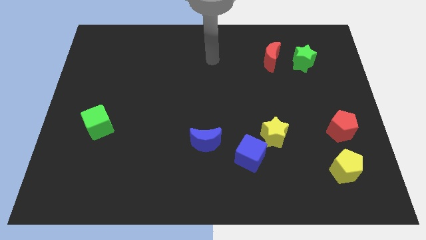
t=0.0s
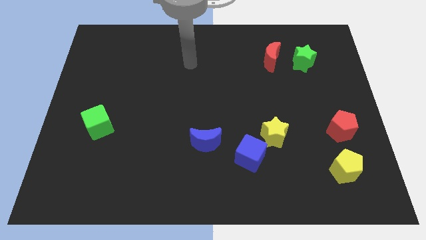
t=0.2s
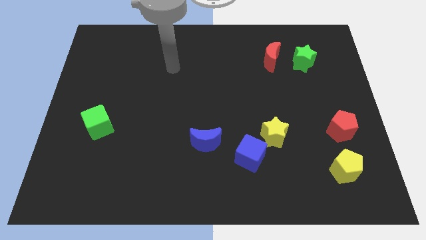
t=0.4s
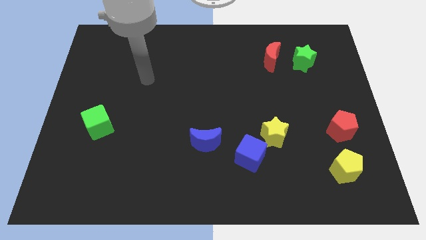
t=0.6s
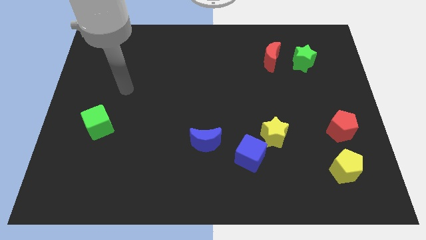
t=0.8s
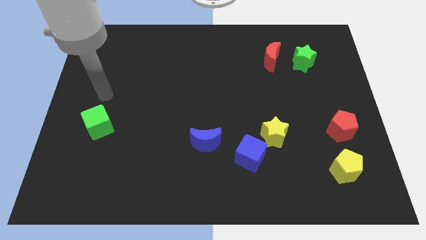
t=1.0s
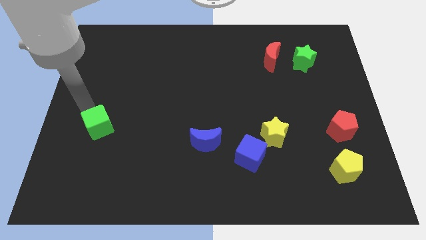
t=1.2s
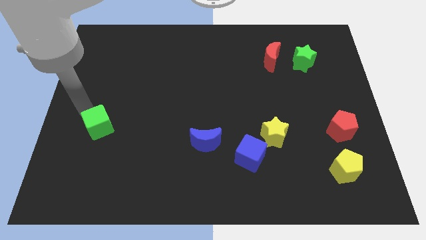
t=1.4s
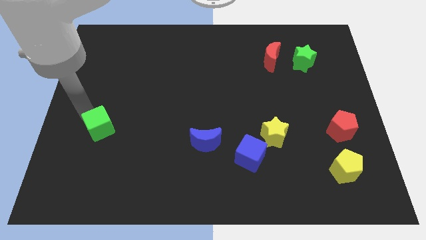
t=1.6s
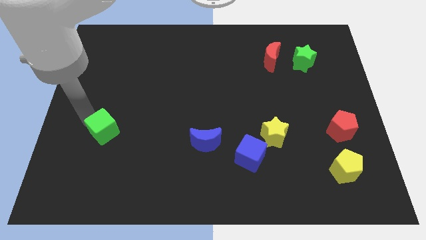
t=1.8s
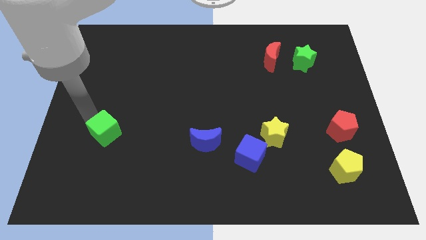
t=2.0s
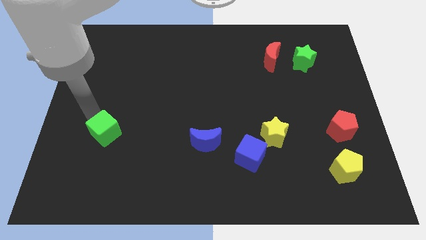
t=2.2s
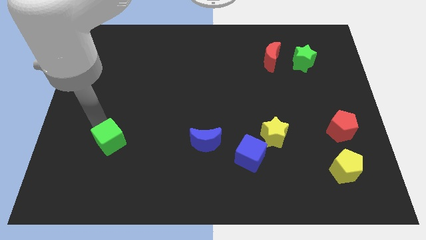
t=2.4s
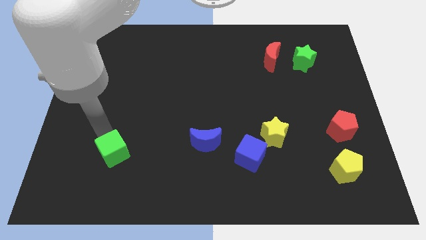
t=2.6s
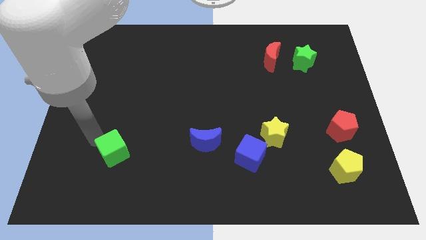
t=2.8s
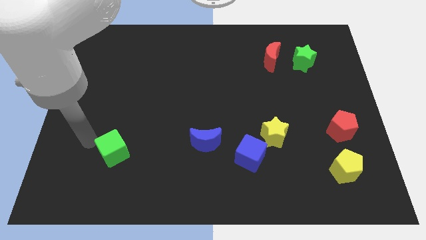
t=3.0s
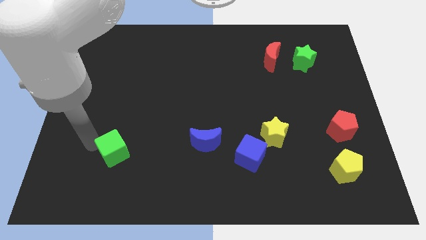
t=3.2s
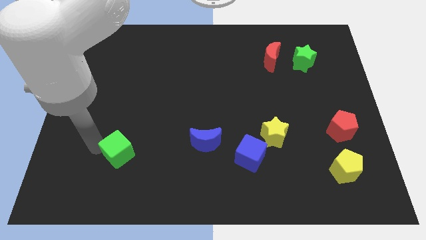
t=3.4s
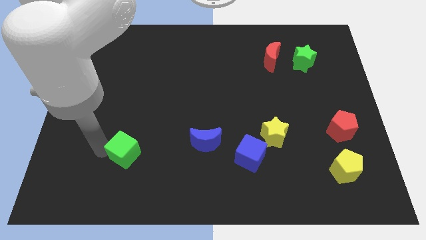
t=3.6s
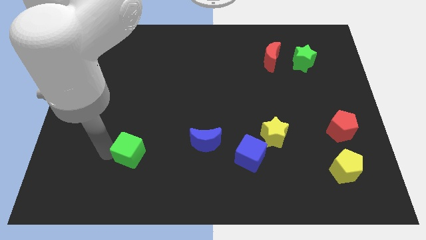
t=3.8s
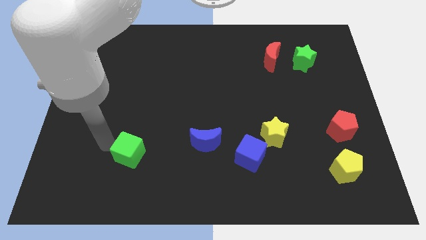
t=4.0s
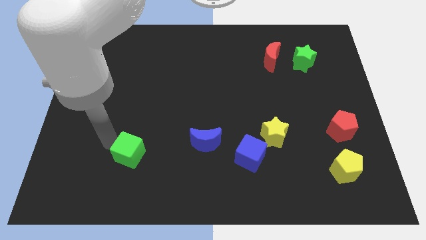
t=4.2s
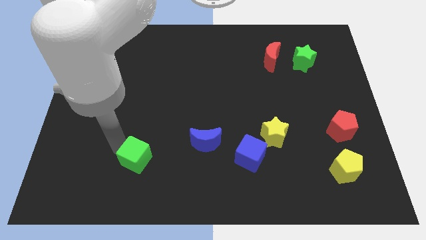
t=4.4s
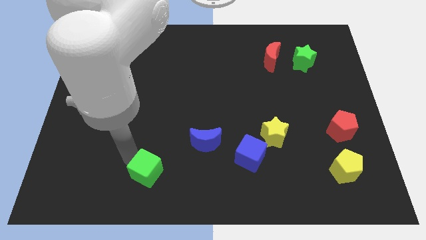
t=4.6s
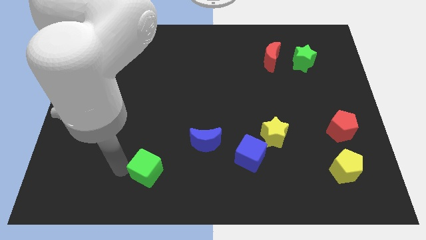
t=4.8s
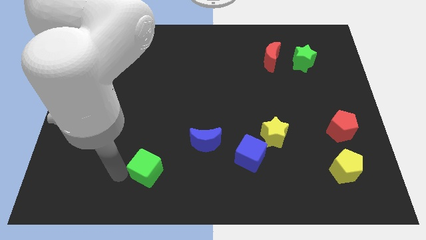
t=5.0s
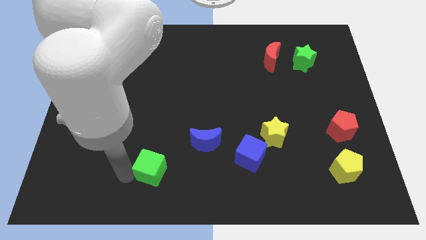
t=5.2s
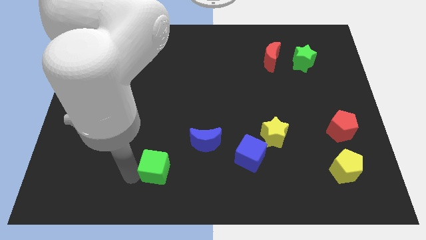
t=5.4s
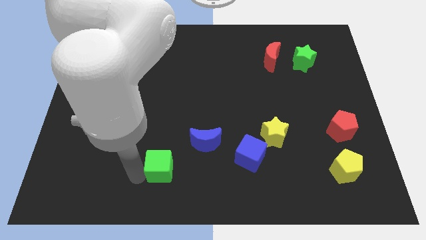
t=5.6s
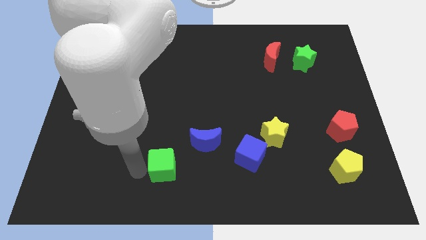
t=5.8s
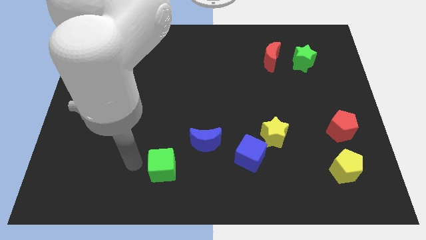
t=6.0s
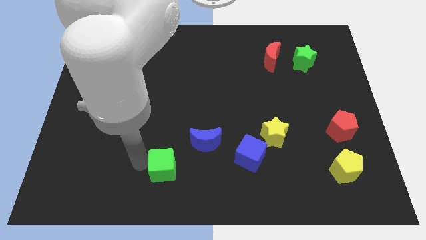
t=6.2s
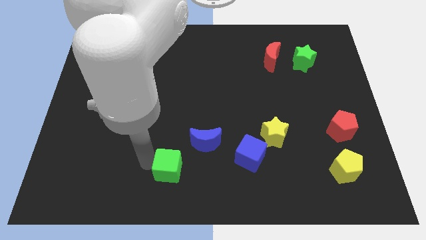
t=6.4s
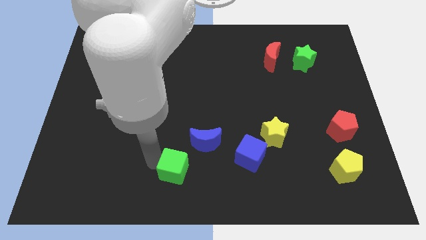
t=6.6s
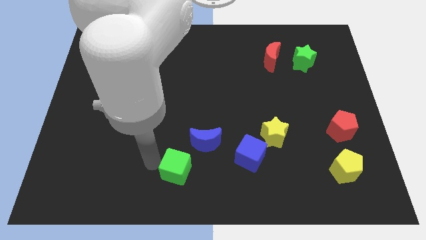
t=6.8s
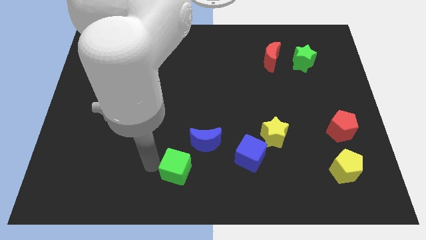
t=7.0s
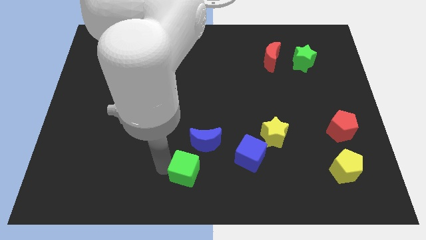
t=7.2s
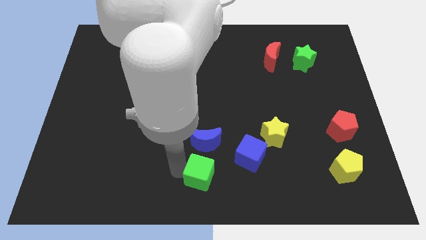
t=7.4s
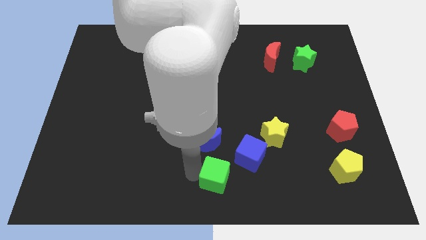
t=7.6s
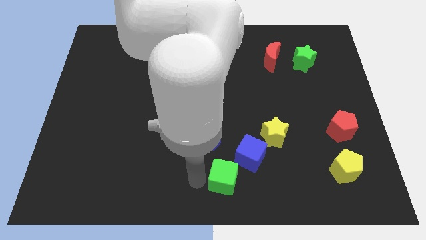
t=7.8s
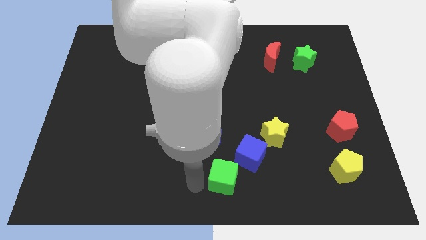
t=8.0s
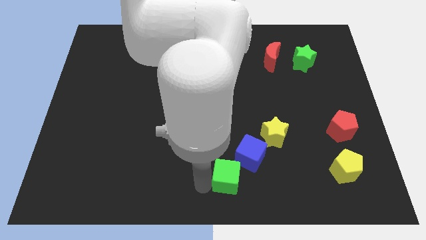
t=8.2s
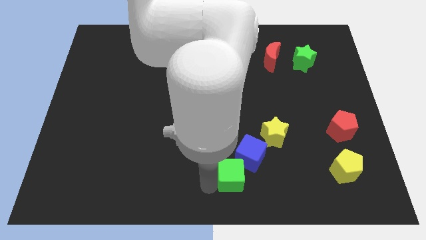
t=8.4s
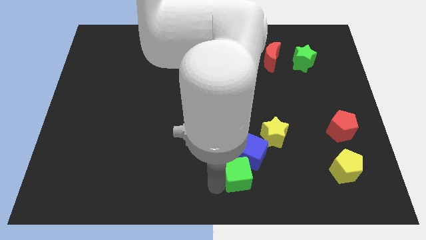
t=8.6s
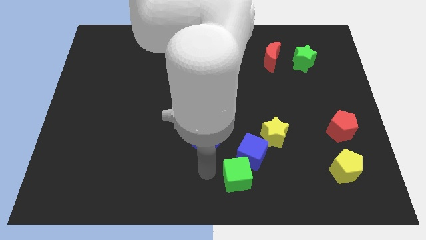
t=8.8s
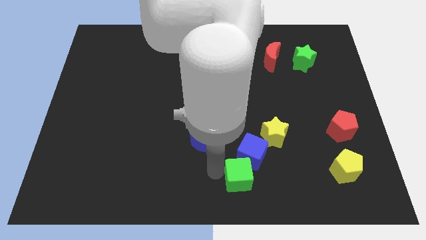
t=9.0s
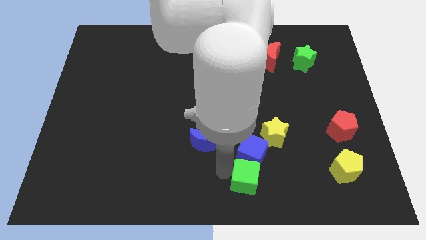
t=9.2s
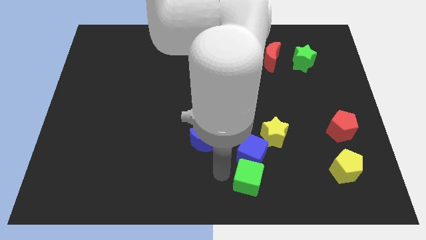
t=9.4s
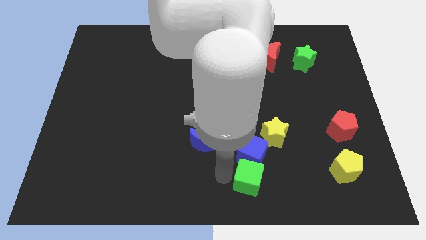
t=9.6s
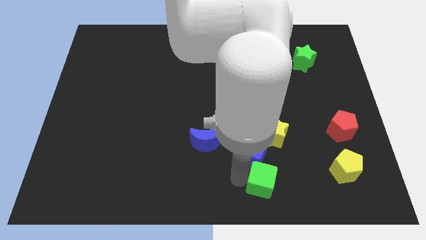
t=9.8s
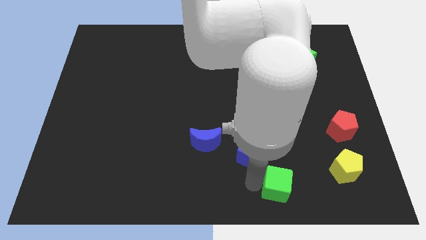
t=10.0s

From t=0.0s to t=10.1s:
move the green cube just left of the yellow pentagon

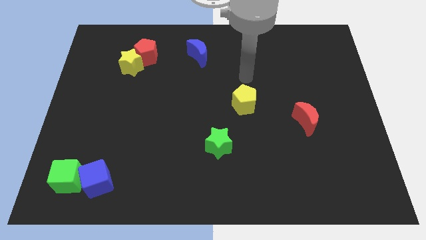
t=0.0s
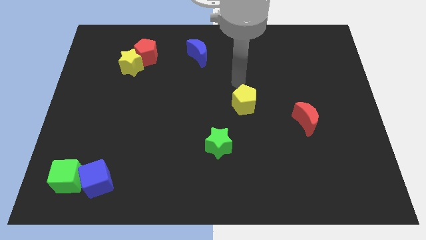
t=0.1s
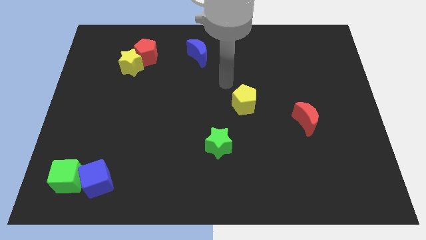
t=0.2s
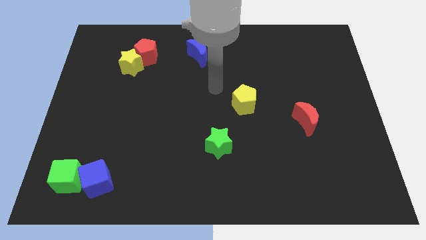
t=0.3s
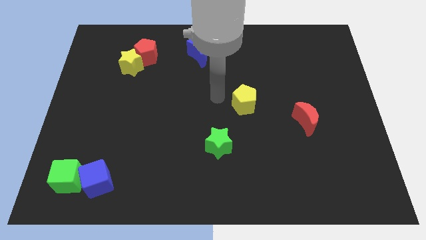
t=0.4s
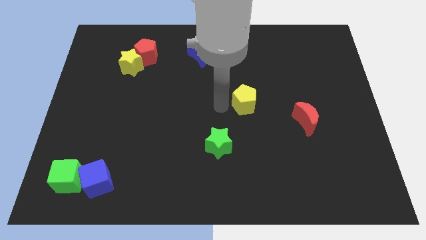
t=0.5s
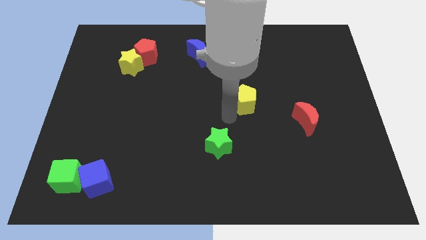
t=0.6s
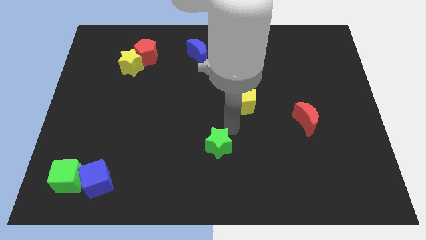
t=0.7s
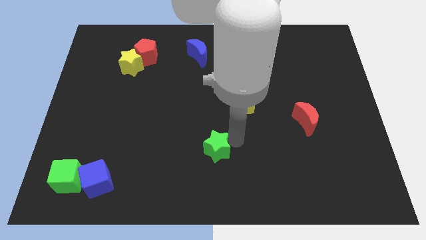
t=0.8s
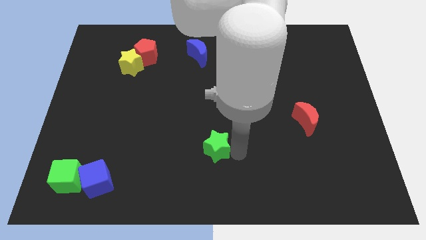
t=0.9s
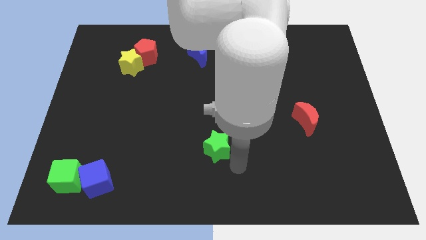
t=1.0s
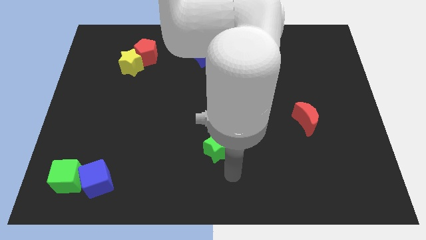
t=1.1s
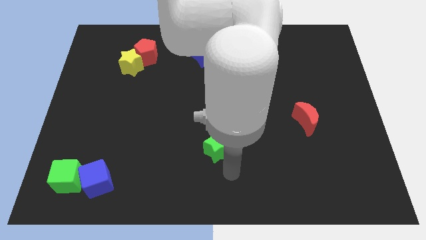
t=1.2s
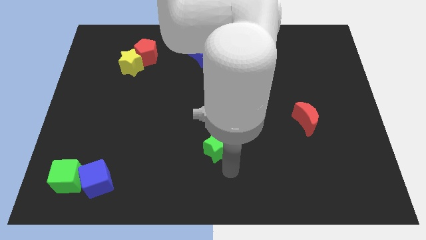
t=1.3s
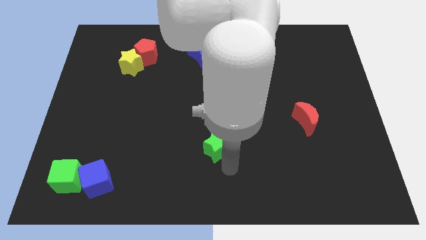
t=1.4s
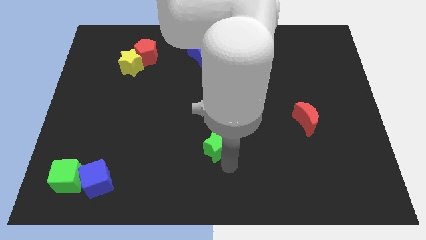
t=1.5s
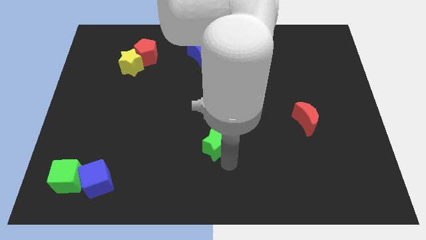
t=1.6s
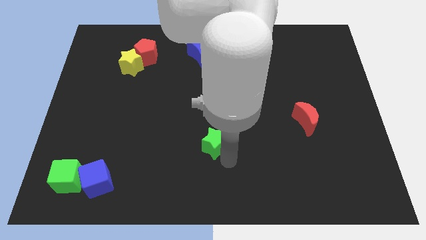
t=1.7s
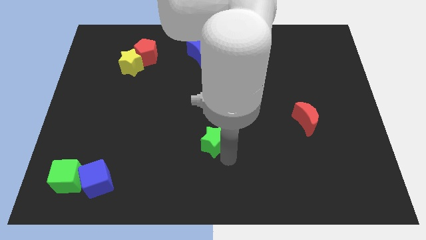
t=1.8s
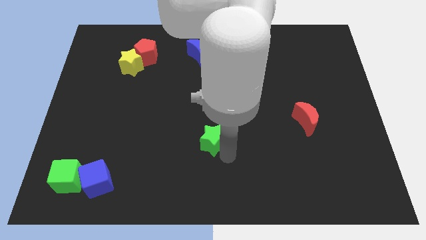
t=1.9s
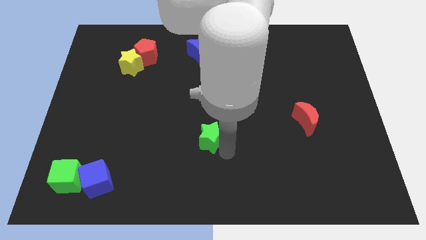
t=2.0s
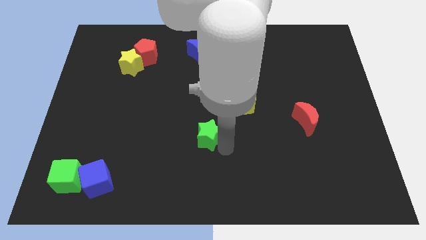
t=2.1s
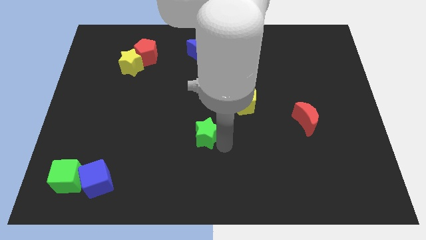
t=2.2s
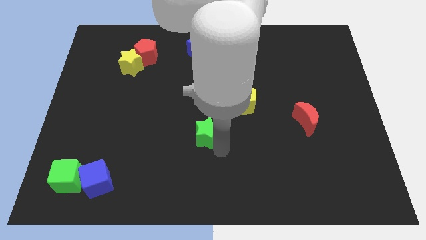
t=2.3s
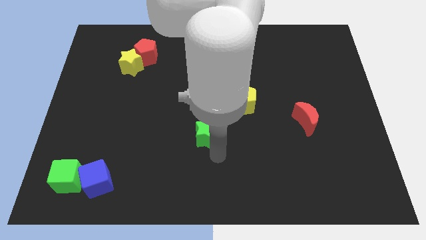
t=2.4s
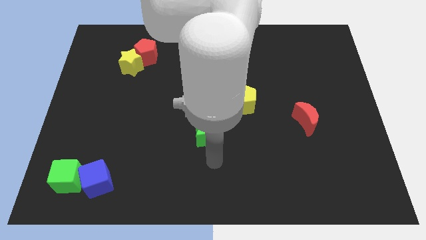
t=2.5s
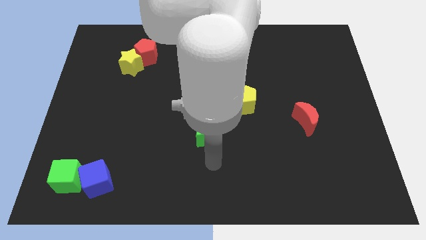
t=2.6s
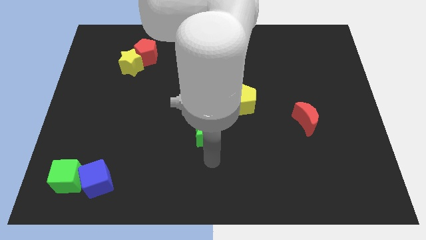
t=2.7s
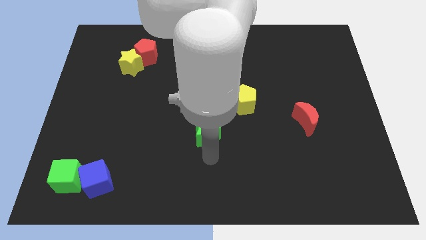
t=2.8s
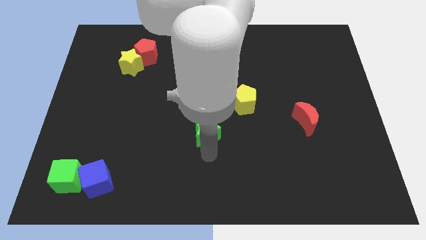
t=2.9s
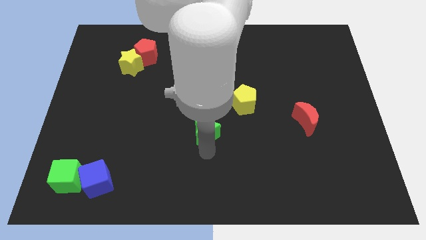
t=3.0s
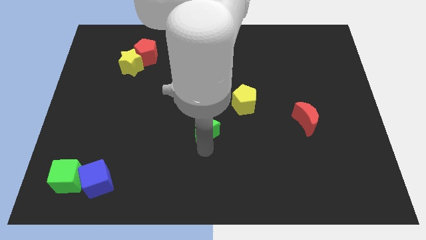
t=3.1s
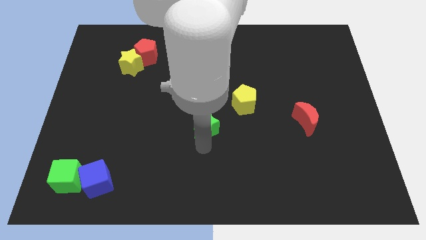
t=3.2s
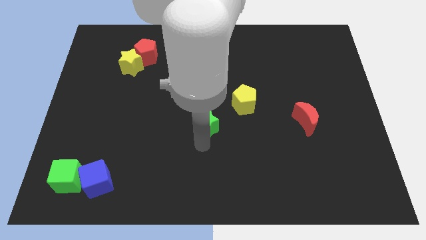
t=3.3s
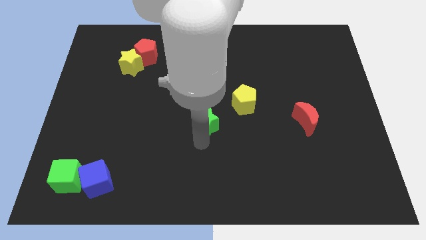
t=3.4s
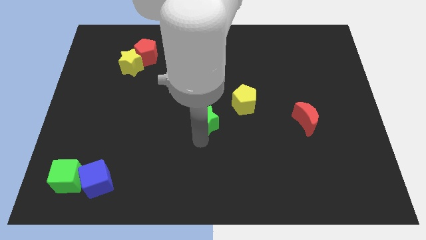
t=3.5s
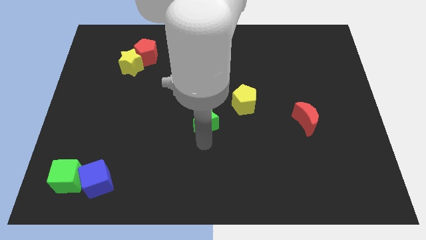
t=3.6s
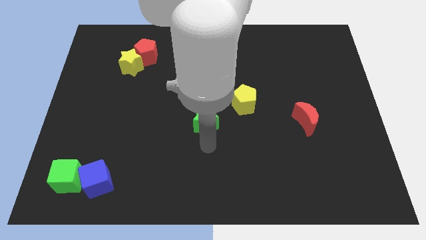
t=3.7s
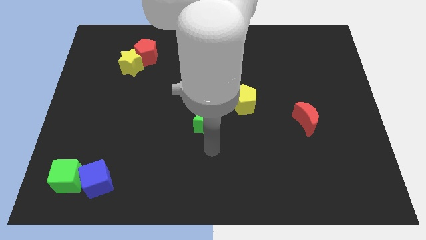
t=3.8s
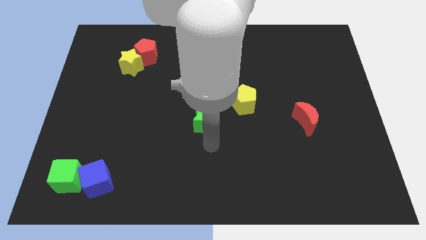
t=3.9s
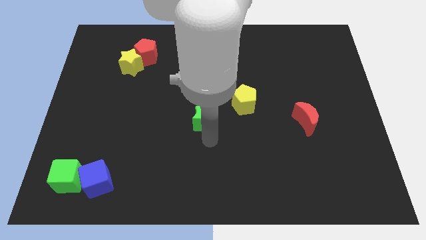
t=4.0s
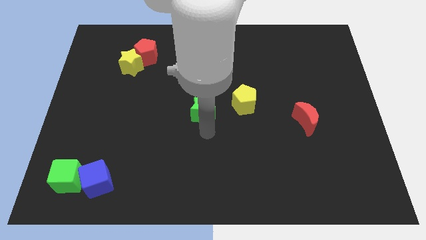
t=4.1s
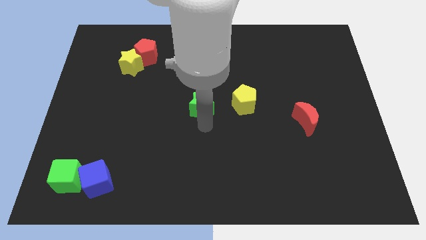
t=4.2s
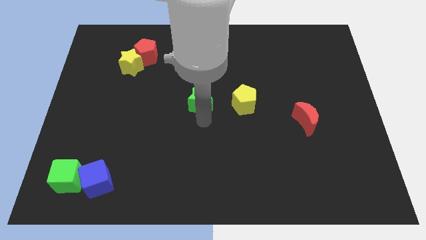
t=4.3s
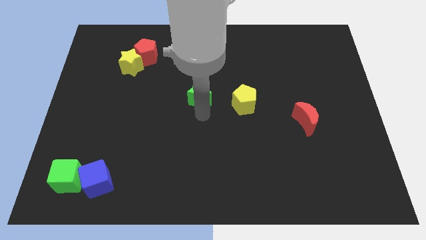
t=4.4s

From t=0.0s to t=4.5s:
put the green star to the bottom side of the blue moon
